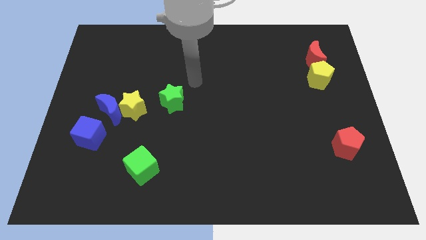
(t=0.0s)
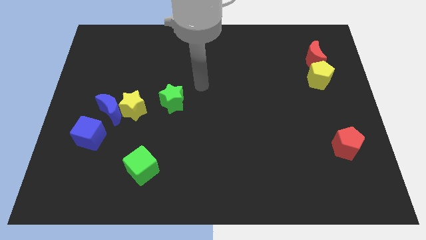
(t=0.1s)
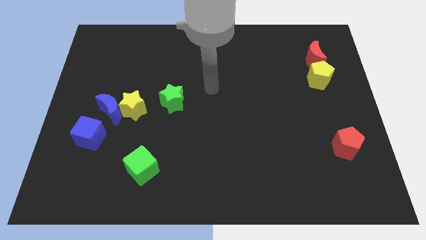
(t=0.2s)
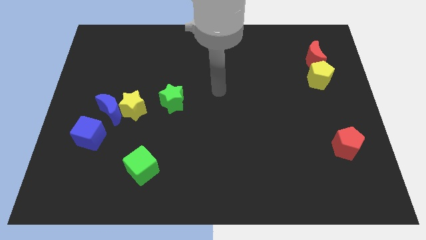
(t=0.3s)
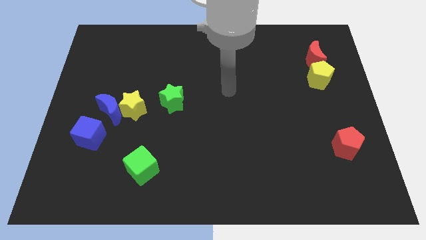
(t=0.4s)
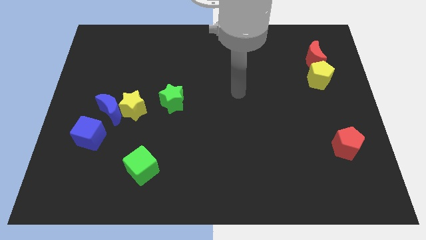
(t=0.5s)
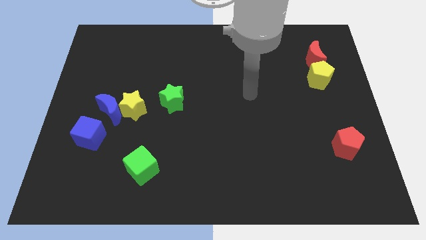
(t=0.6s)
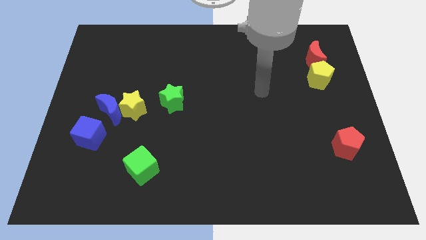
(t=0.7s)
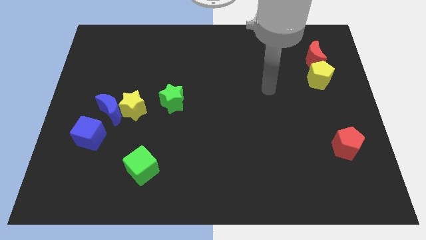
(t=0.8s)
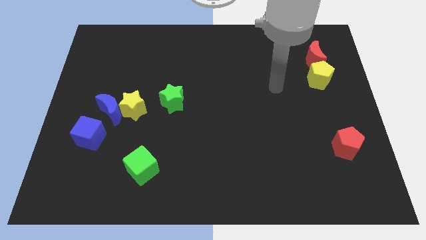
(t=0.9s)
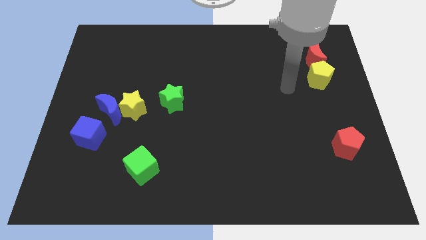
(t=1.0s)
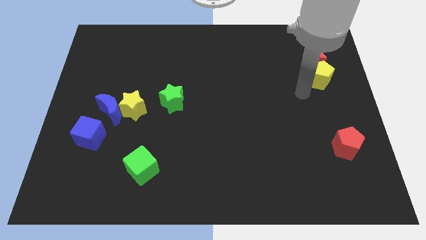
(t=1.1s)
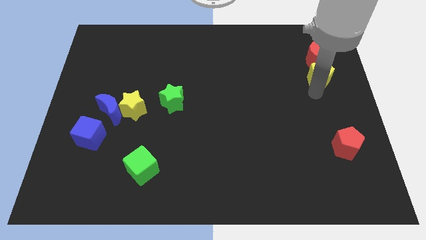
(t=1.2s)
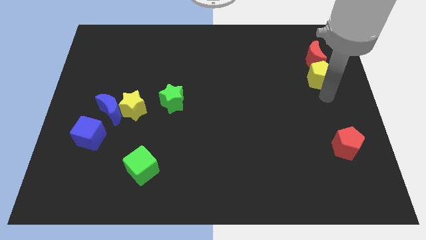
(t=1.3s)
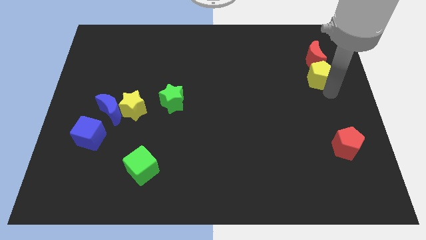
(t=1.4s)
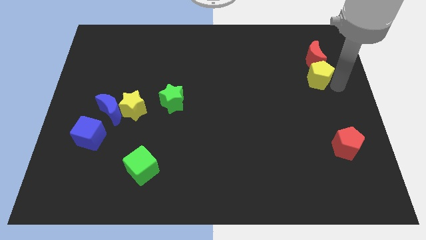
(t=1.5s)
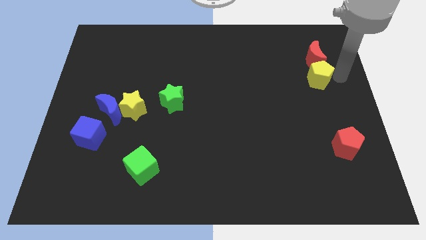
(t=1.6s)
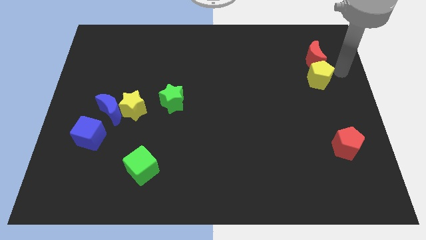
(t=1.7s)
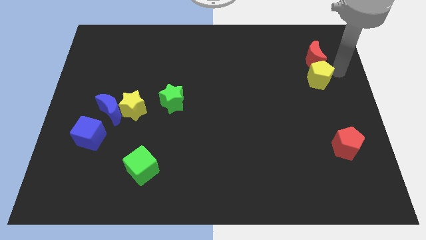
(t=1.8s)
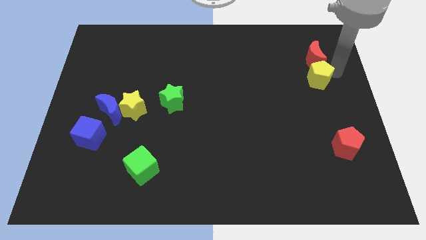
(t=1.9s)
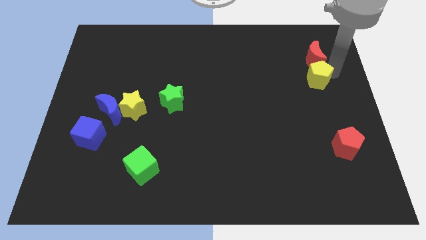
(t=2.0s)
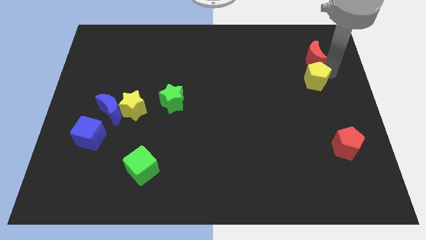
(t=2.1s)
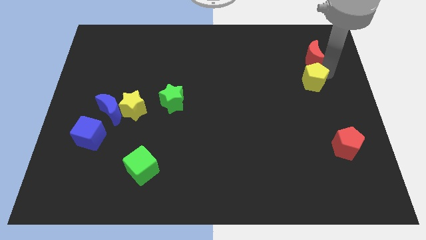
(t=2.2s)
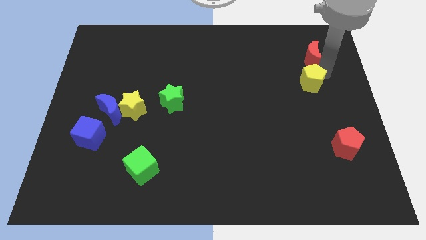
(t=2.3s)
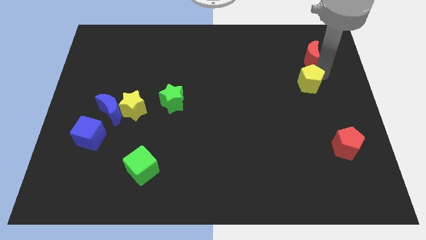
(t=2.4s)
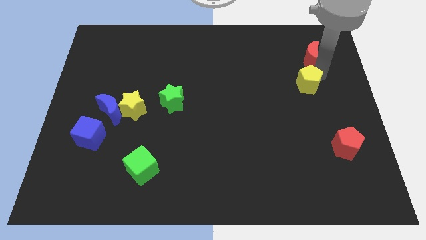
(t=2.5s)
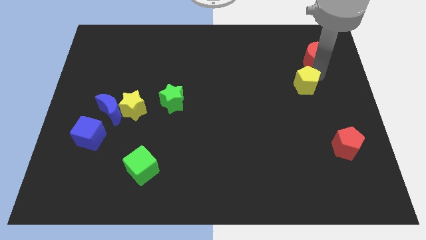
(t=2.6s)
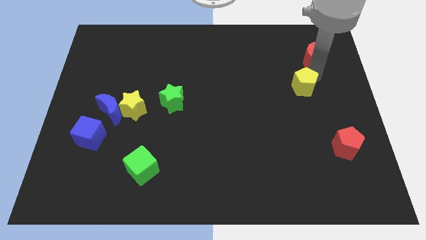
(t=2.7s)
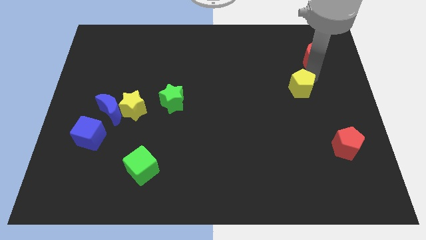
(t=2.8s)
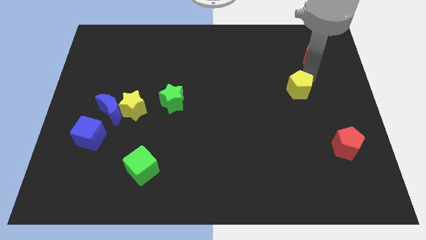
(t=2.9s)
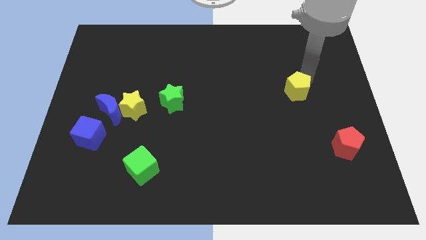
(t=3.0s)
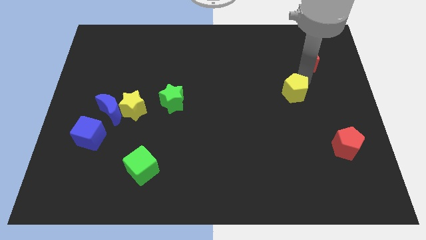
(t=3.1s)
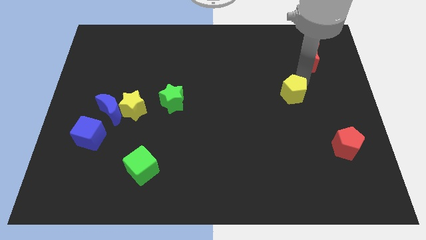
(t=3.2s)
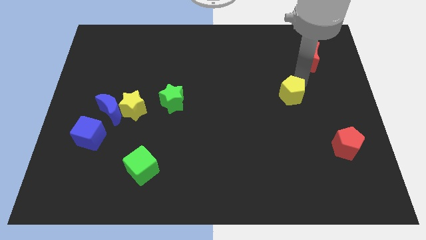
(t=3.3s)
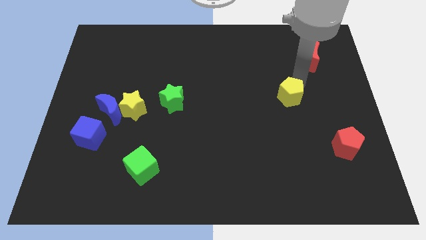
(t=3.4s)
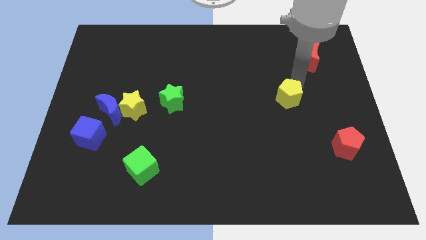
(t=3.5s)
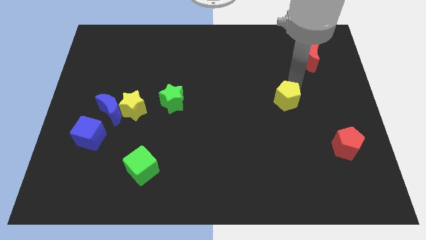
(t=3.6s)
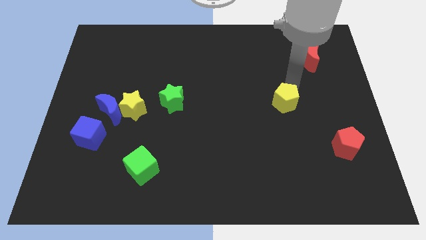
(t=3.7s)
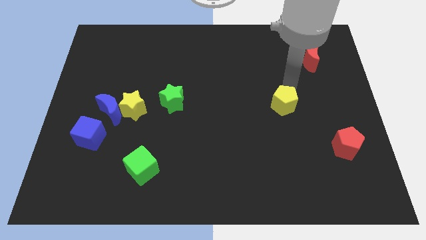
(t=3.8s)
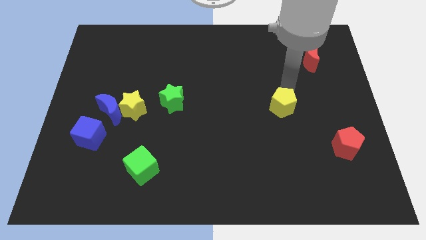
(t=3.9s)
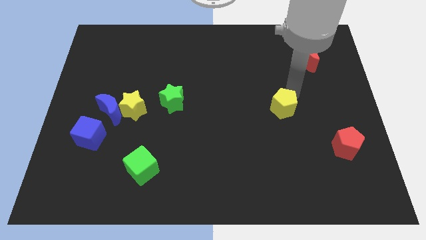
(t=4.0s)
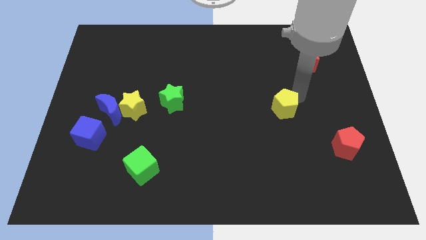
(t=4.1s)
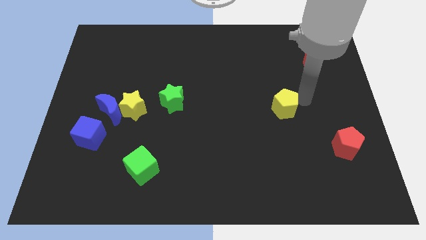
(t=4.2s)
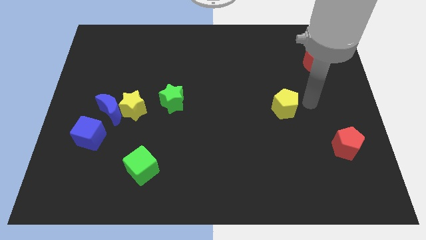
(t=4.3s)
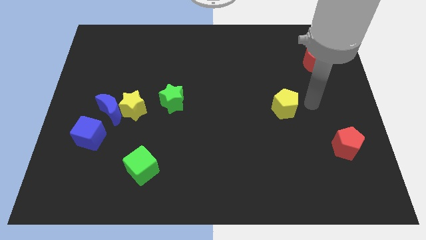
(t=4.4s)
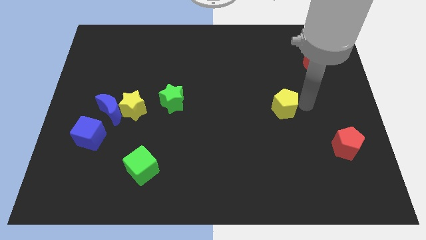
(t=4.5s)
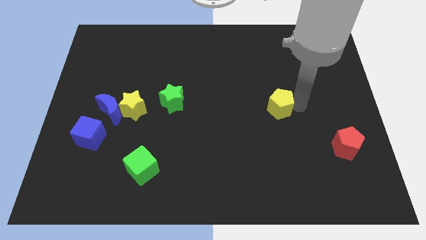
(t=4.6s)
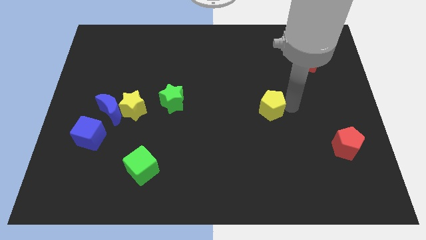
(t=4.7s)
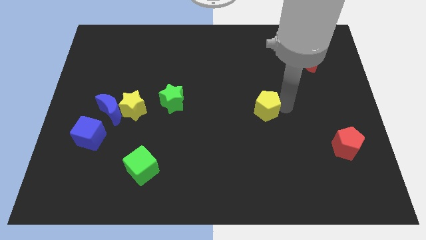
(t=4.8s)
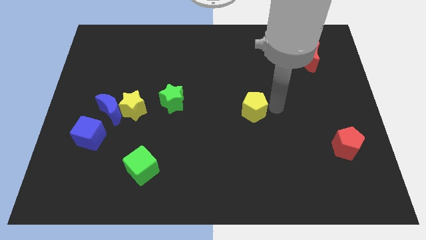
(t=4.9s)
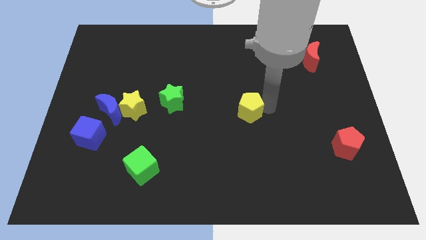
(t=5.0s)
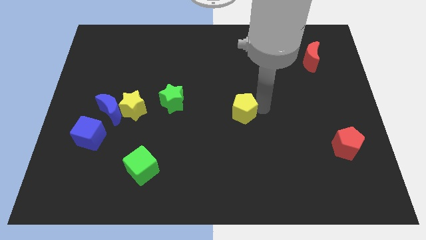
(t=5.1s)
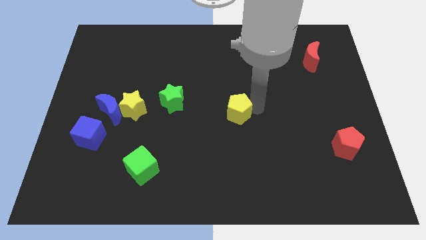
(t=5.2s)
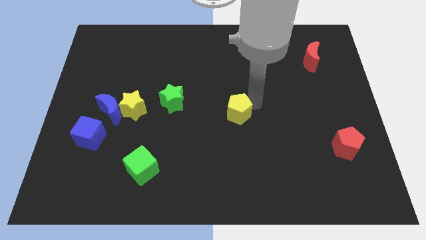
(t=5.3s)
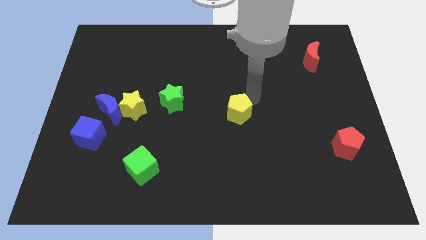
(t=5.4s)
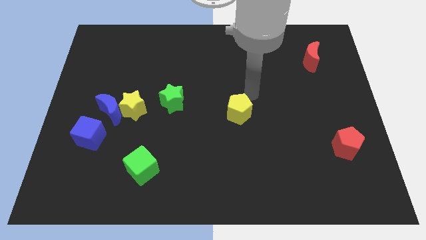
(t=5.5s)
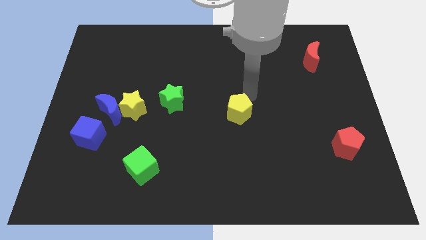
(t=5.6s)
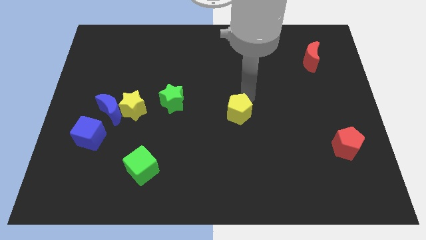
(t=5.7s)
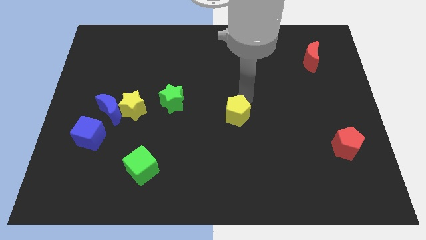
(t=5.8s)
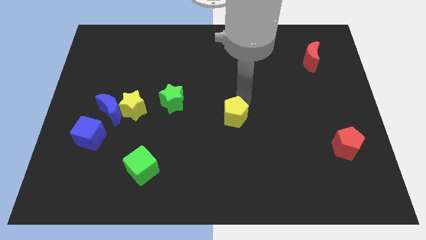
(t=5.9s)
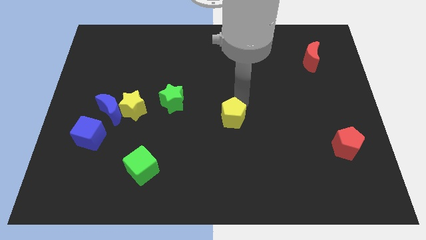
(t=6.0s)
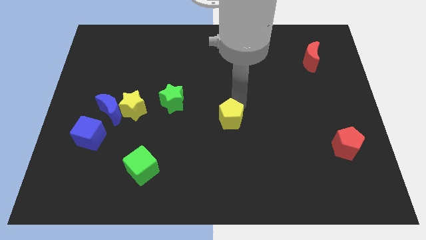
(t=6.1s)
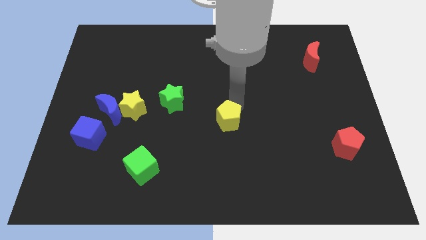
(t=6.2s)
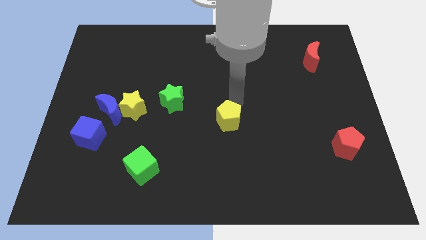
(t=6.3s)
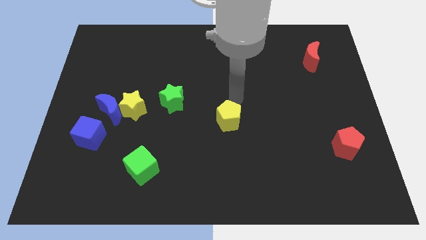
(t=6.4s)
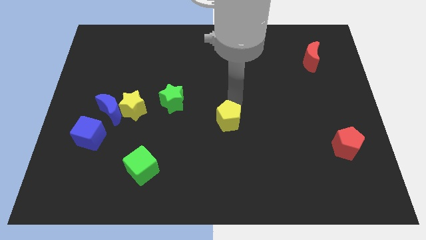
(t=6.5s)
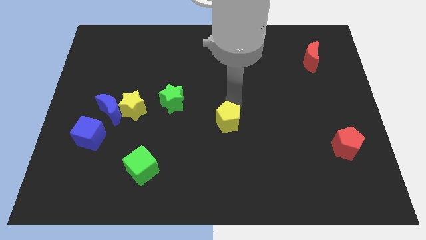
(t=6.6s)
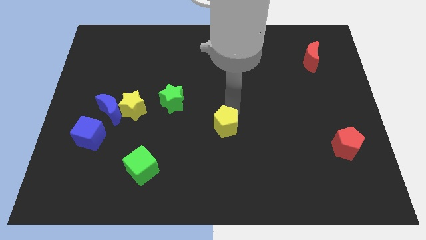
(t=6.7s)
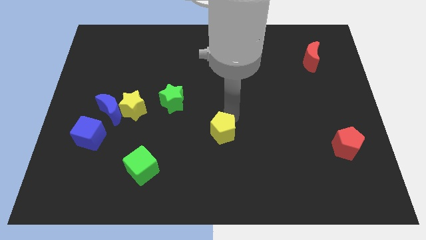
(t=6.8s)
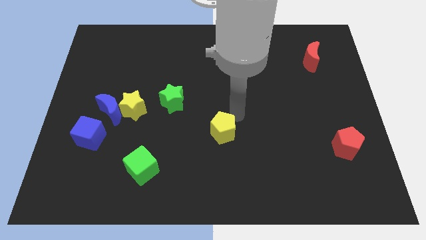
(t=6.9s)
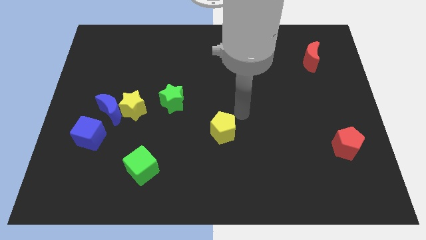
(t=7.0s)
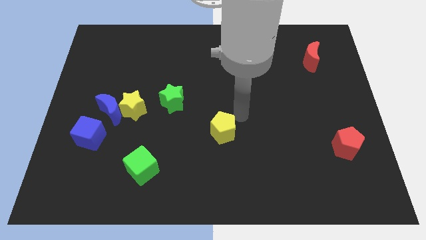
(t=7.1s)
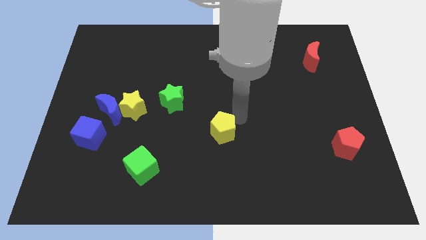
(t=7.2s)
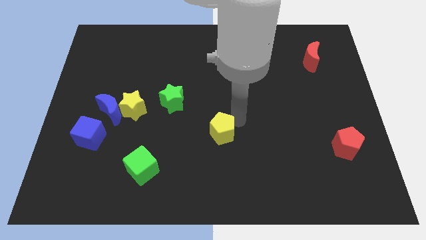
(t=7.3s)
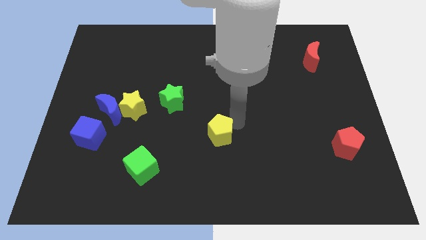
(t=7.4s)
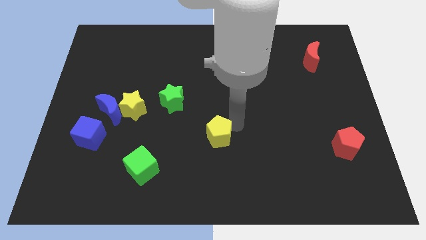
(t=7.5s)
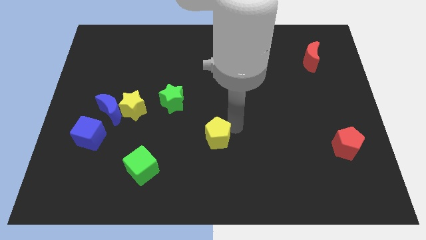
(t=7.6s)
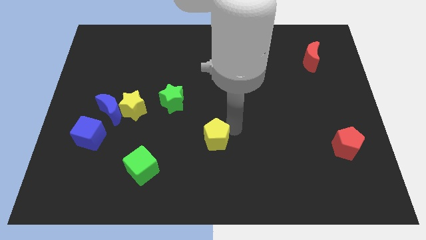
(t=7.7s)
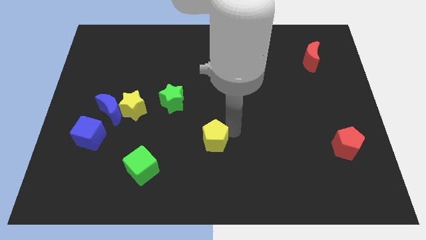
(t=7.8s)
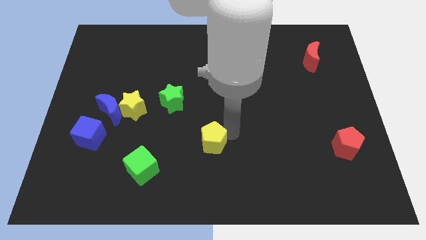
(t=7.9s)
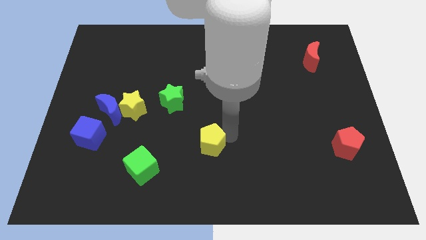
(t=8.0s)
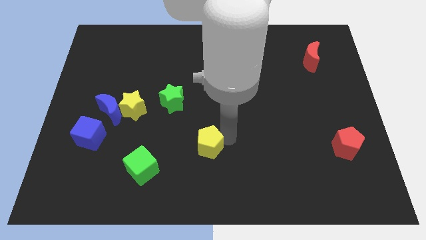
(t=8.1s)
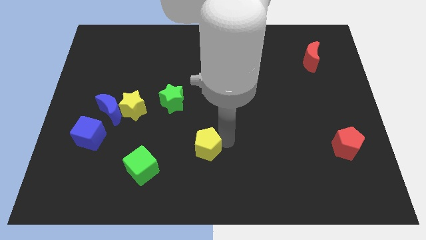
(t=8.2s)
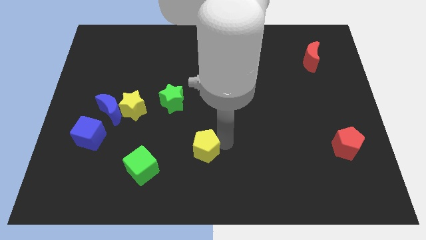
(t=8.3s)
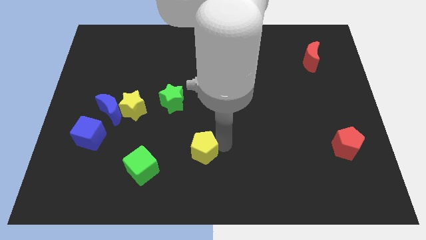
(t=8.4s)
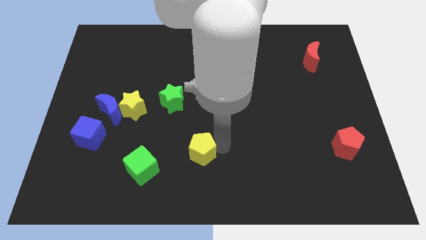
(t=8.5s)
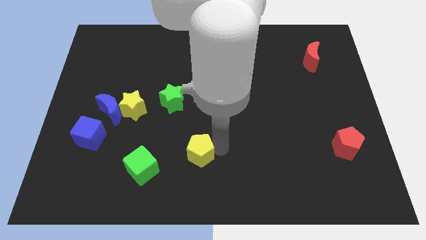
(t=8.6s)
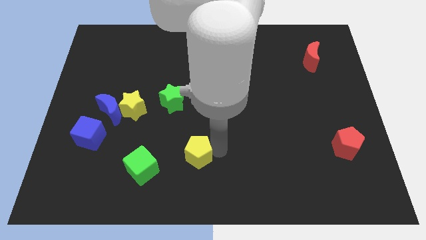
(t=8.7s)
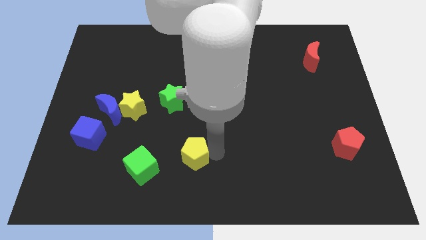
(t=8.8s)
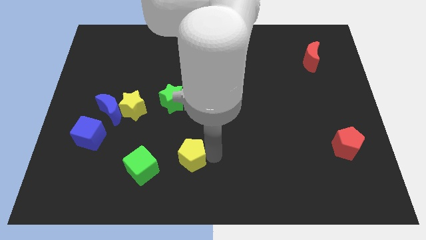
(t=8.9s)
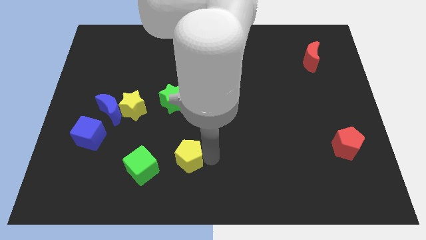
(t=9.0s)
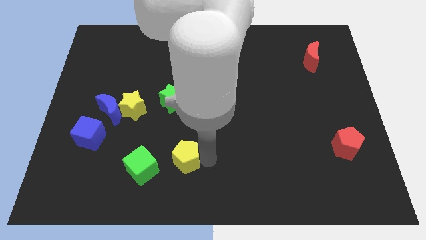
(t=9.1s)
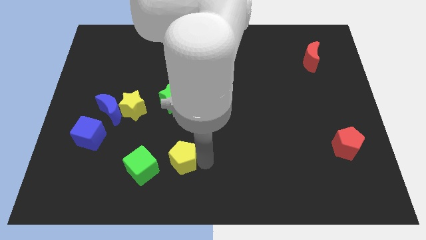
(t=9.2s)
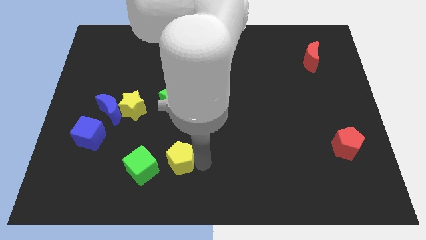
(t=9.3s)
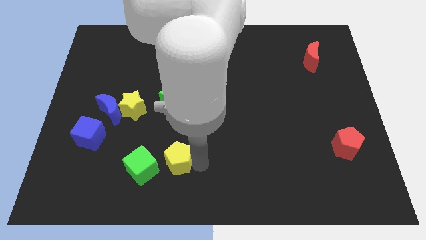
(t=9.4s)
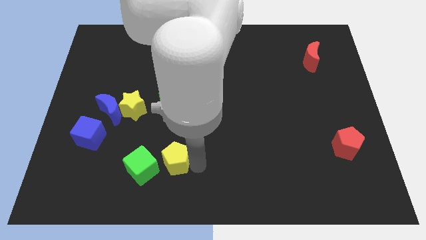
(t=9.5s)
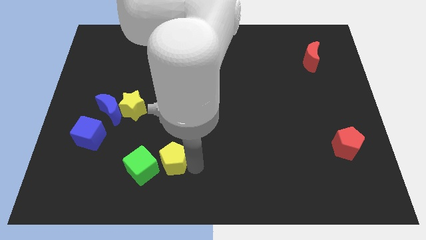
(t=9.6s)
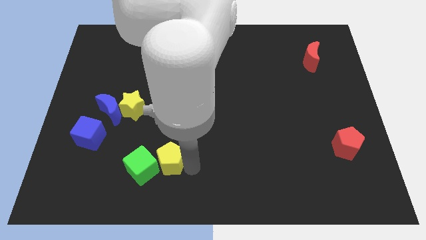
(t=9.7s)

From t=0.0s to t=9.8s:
slide the yellow pentagon next to the green cube
